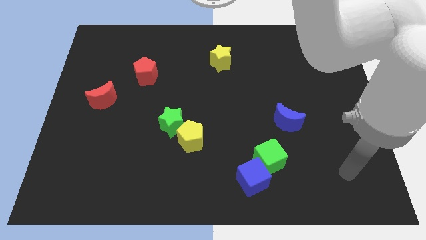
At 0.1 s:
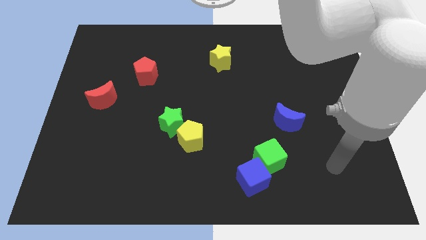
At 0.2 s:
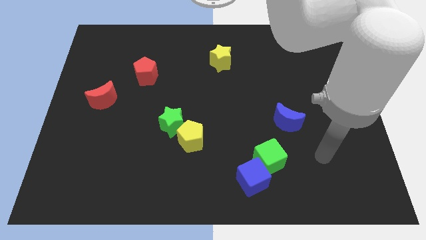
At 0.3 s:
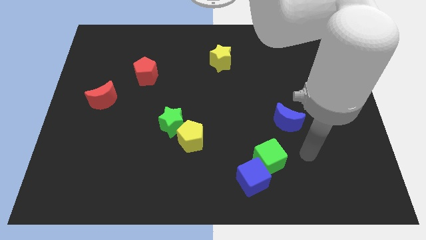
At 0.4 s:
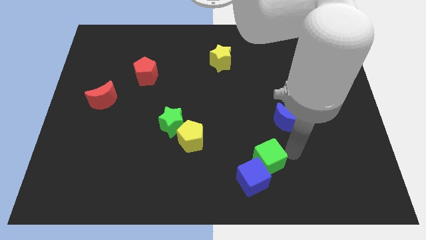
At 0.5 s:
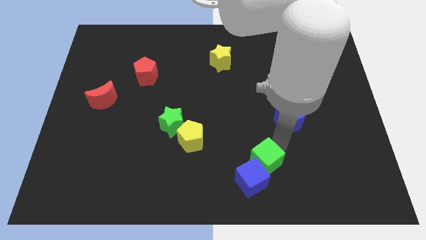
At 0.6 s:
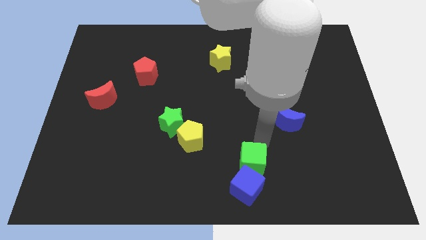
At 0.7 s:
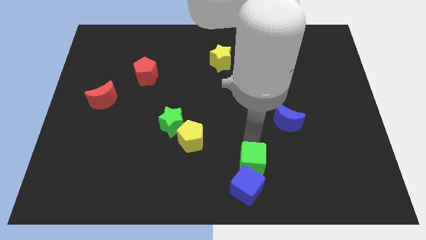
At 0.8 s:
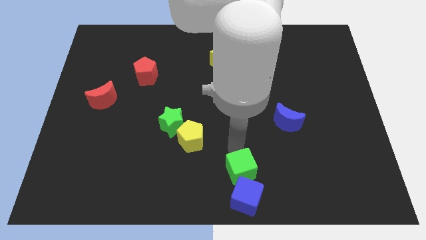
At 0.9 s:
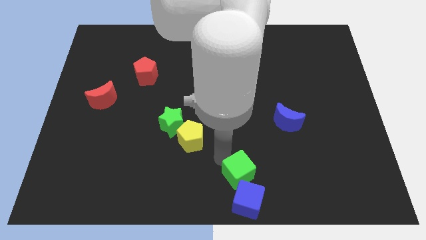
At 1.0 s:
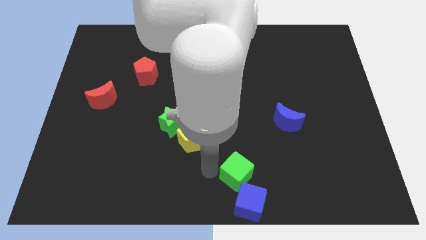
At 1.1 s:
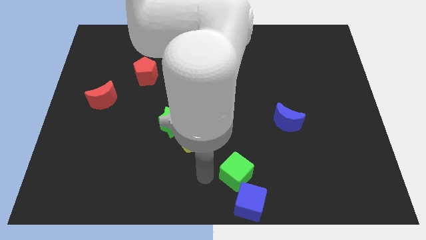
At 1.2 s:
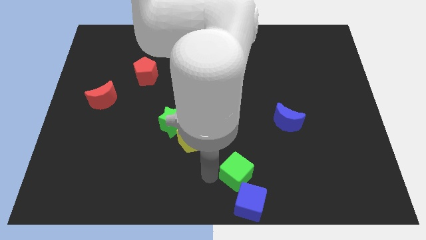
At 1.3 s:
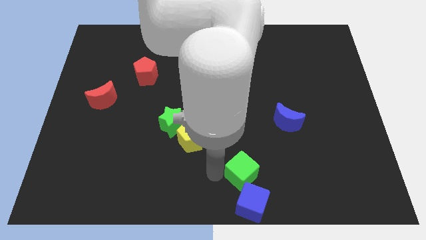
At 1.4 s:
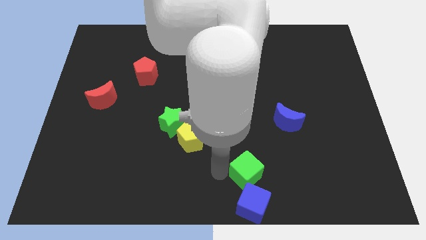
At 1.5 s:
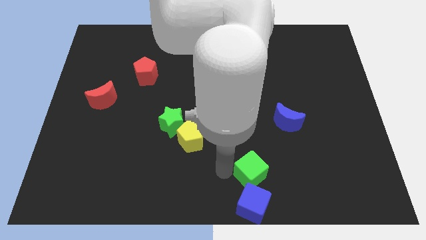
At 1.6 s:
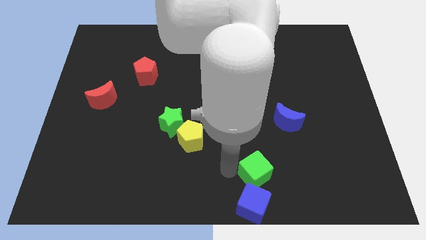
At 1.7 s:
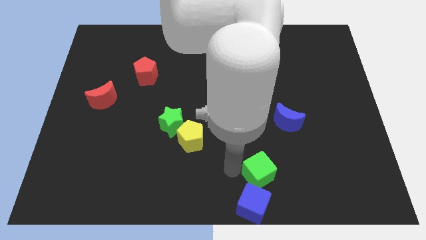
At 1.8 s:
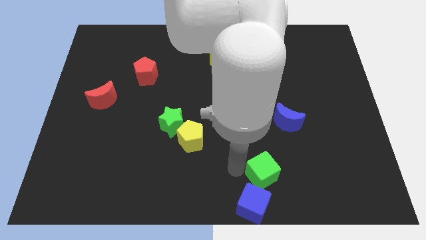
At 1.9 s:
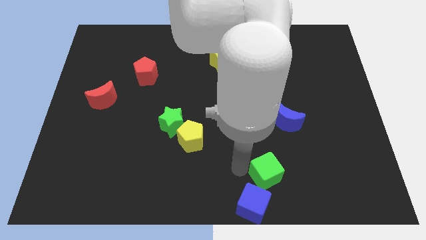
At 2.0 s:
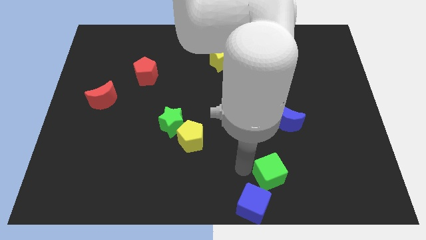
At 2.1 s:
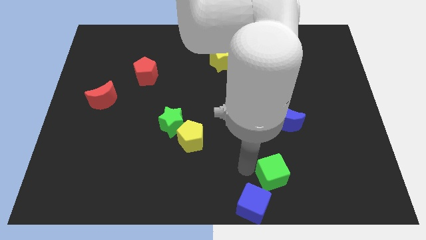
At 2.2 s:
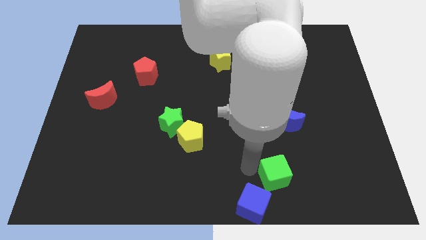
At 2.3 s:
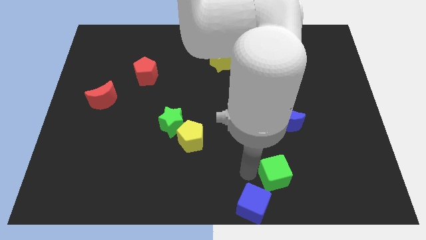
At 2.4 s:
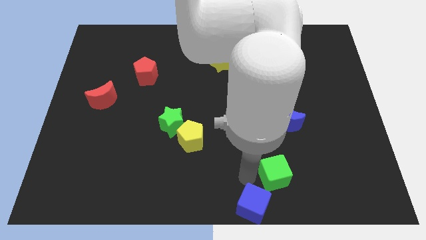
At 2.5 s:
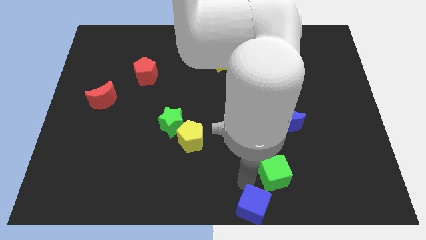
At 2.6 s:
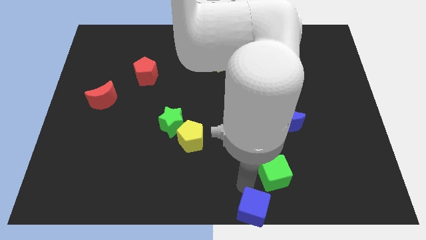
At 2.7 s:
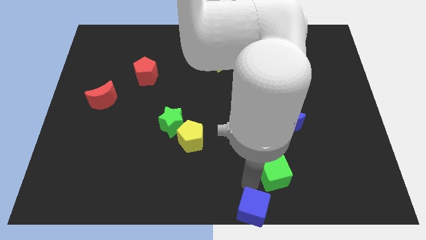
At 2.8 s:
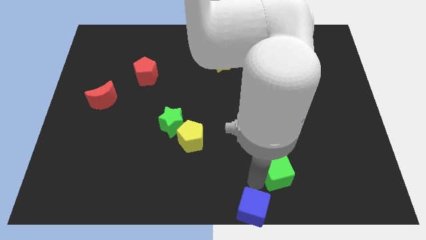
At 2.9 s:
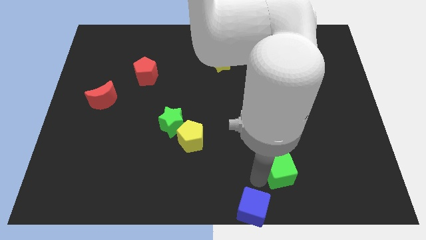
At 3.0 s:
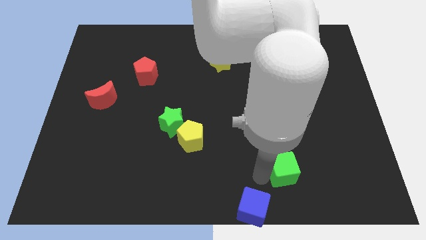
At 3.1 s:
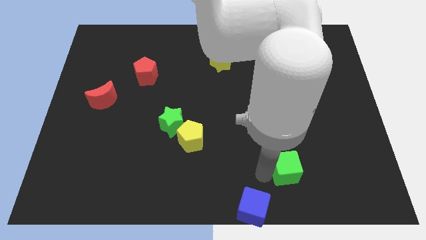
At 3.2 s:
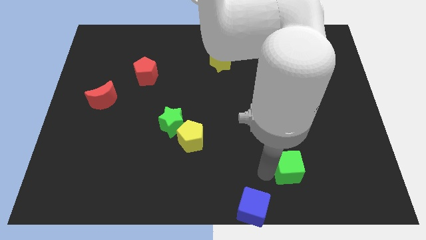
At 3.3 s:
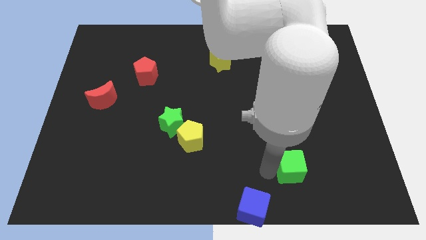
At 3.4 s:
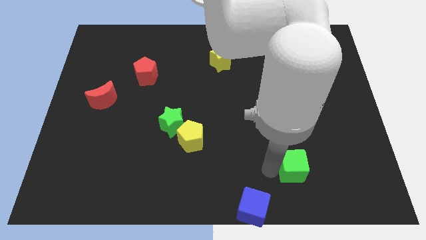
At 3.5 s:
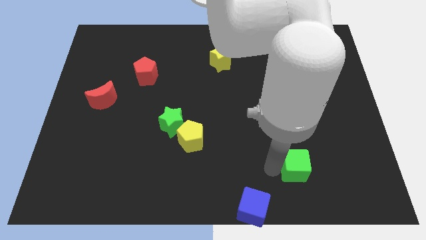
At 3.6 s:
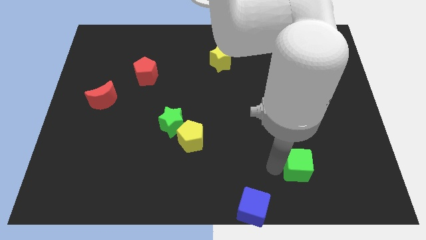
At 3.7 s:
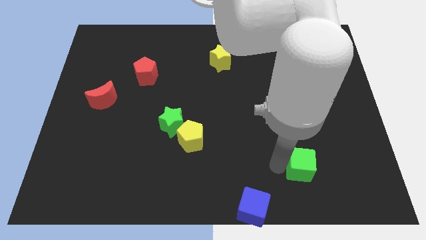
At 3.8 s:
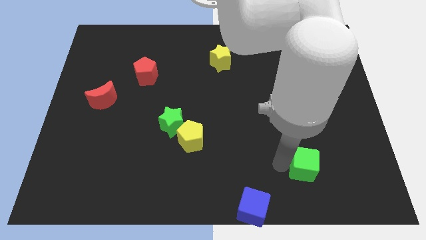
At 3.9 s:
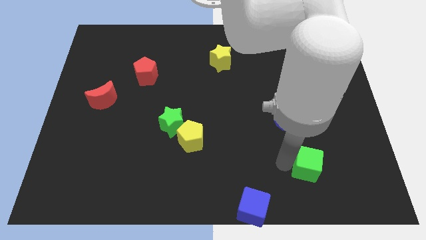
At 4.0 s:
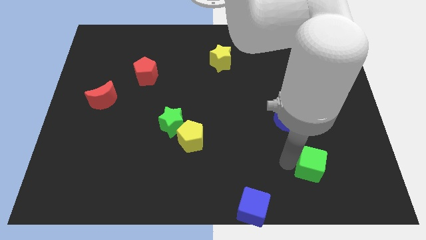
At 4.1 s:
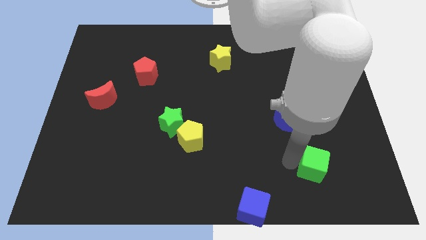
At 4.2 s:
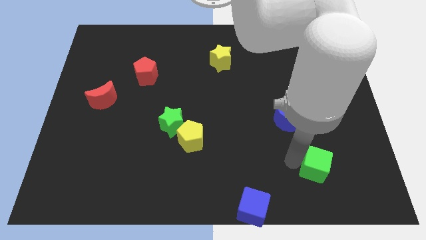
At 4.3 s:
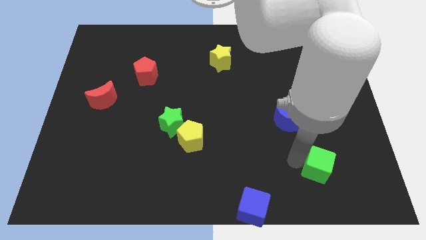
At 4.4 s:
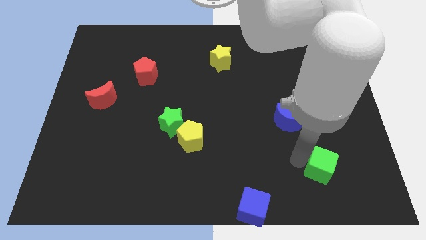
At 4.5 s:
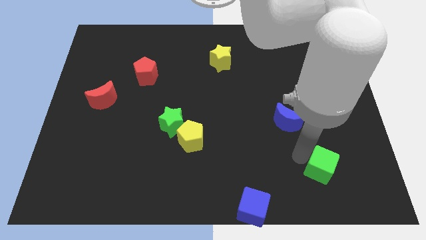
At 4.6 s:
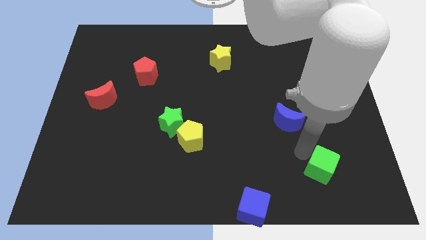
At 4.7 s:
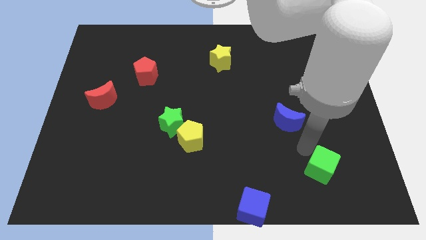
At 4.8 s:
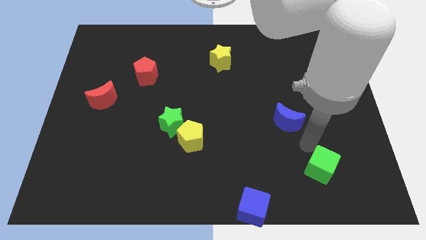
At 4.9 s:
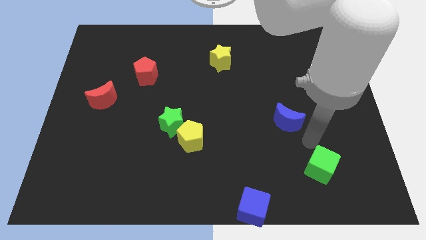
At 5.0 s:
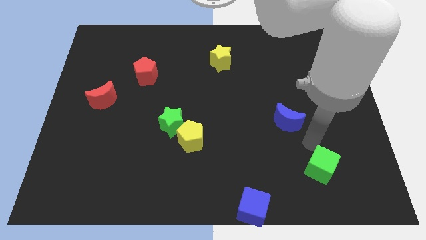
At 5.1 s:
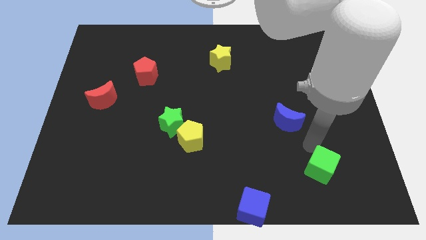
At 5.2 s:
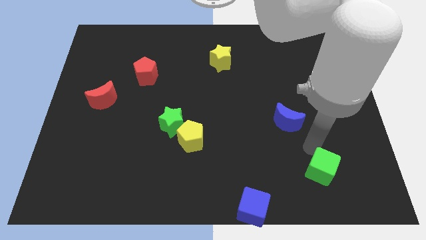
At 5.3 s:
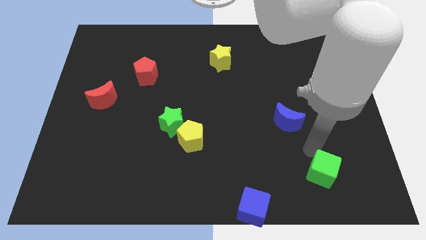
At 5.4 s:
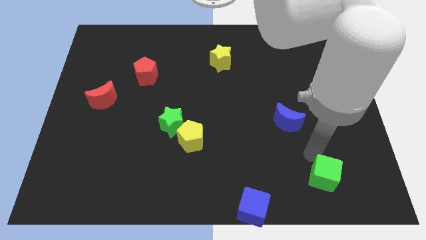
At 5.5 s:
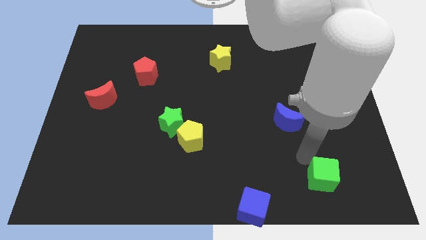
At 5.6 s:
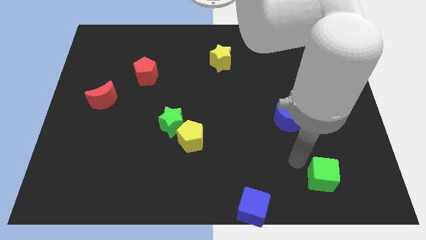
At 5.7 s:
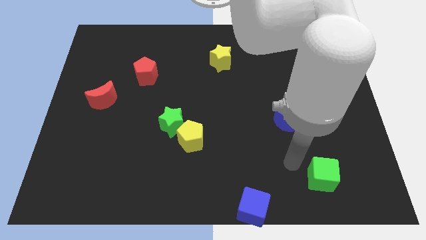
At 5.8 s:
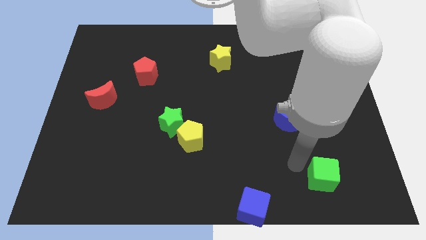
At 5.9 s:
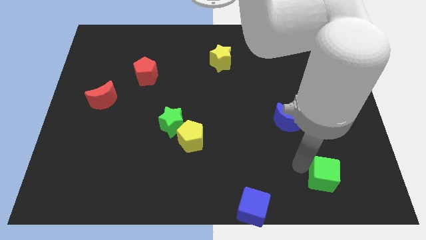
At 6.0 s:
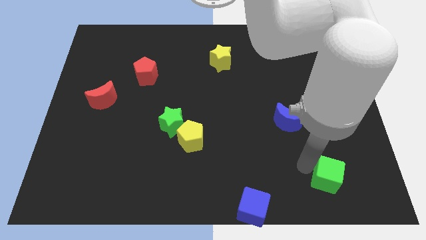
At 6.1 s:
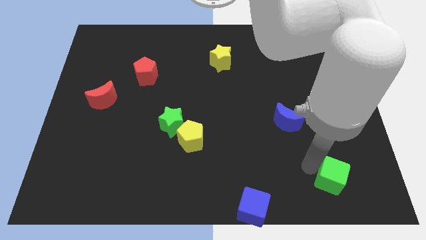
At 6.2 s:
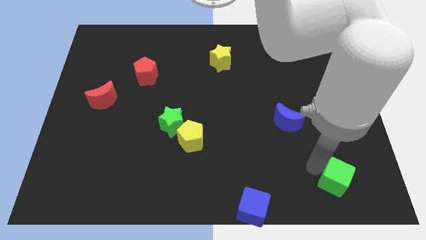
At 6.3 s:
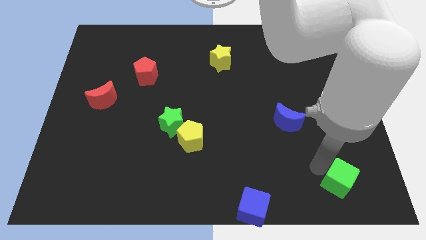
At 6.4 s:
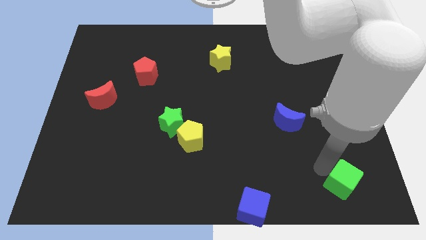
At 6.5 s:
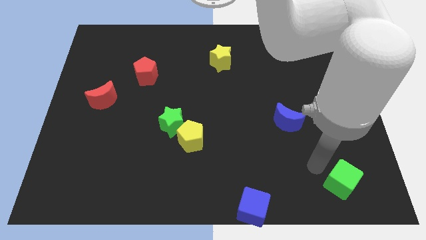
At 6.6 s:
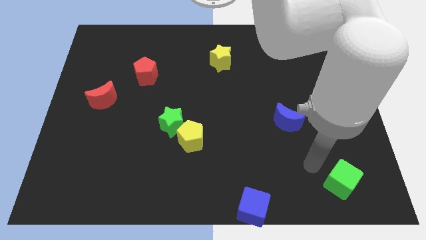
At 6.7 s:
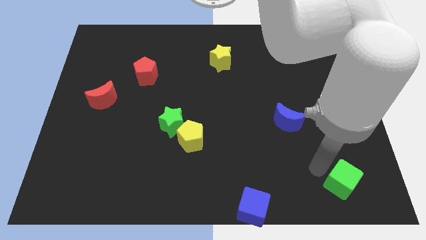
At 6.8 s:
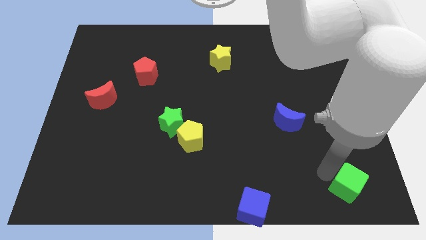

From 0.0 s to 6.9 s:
push the green cube to the lower right corner

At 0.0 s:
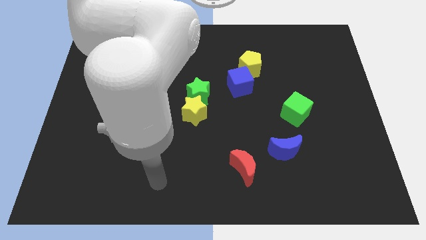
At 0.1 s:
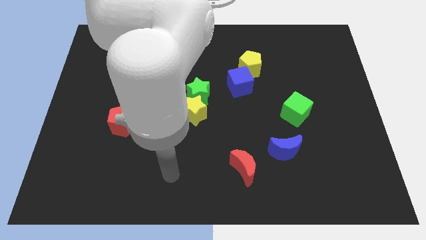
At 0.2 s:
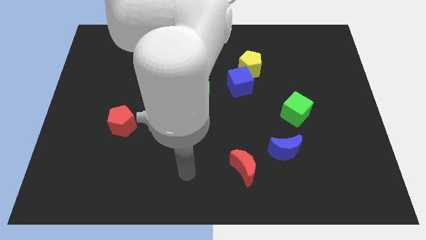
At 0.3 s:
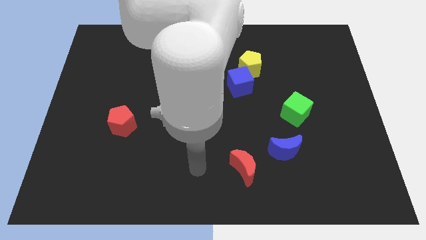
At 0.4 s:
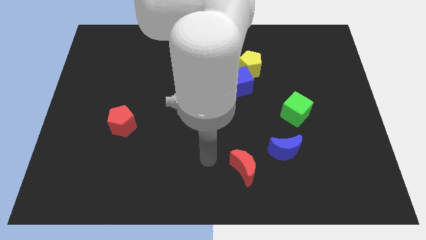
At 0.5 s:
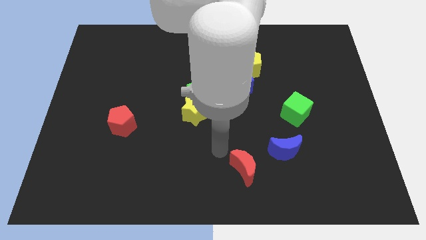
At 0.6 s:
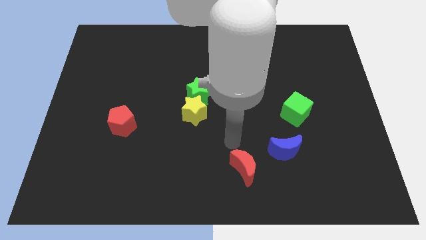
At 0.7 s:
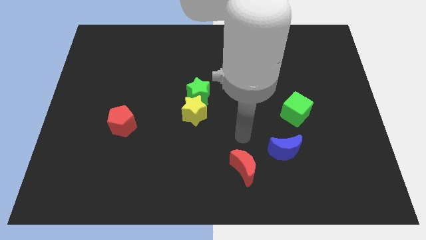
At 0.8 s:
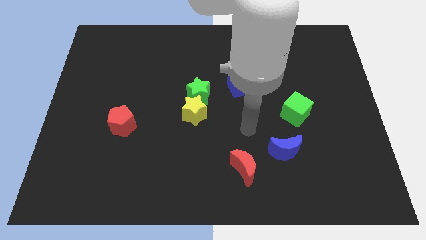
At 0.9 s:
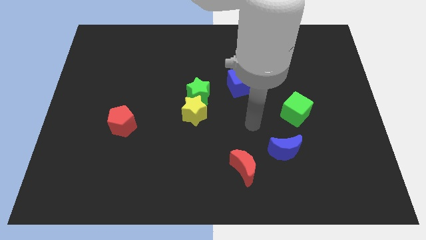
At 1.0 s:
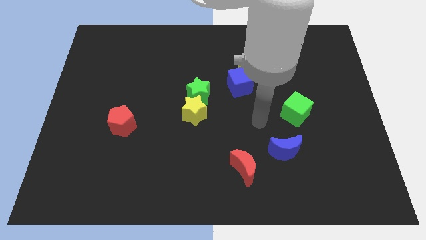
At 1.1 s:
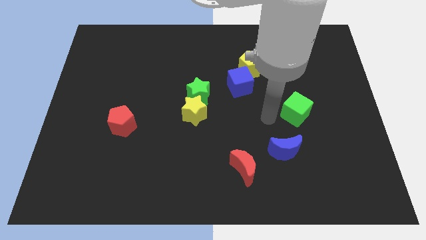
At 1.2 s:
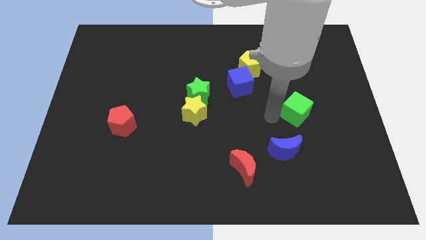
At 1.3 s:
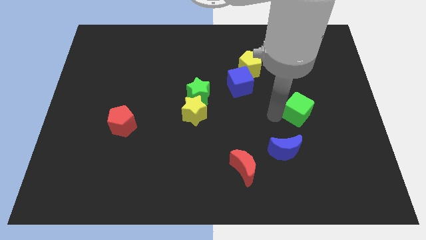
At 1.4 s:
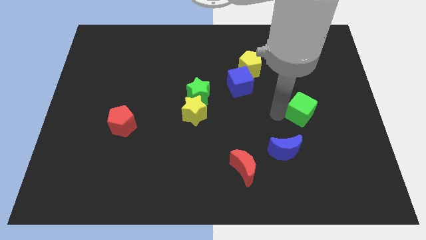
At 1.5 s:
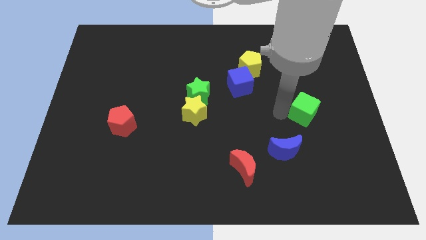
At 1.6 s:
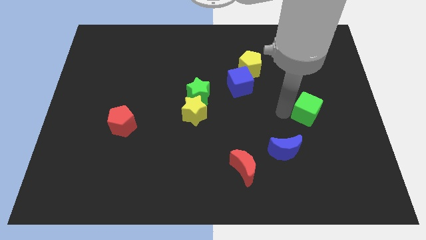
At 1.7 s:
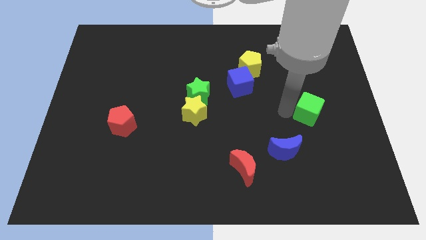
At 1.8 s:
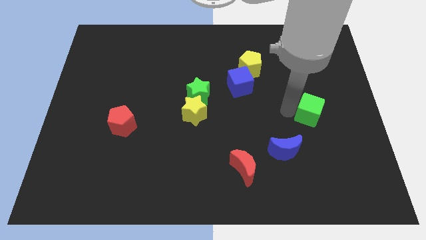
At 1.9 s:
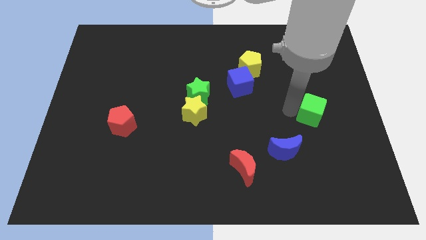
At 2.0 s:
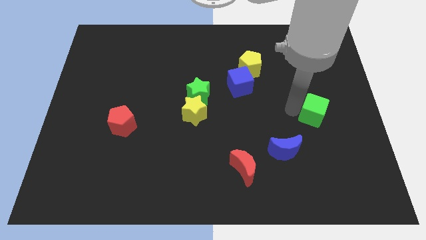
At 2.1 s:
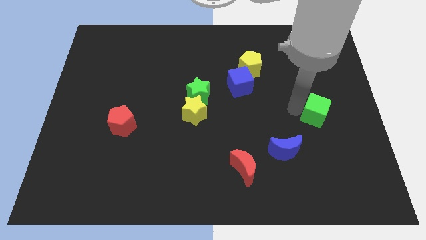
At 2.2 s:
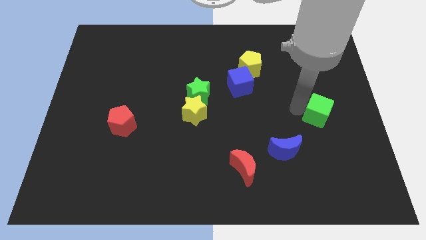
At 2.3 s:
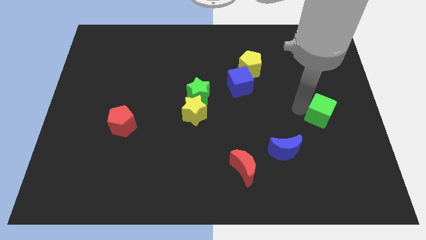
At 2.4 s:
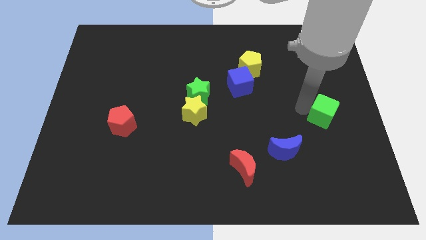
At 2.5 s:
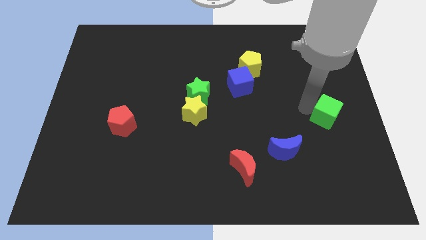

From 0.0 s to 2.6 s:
put the green cube to the right side
